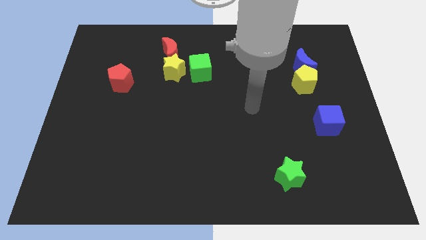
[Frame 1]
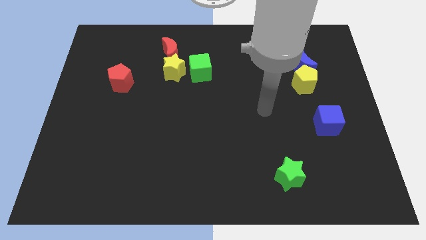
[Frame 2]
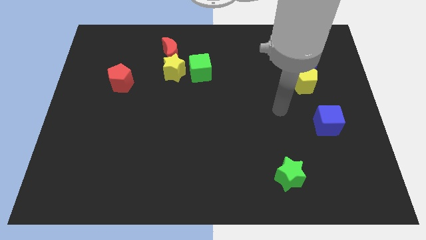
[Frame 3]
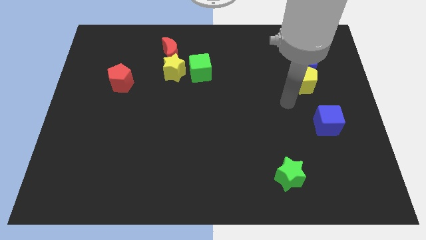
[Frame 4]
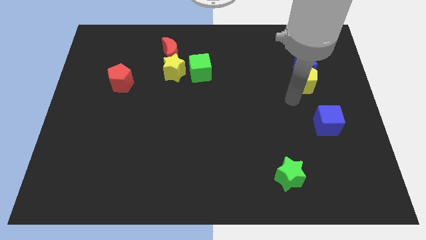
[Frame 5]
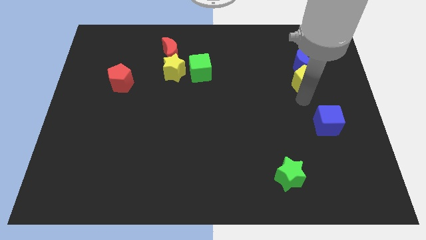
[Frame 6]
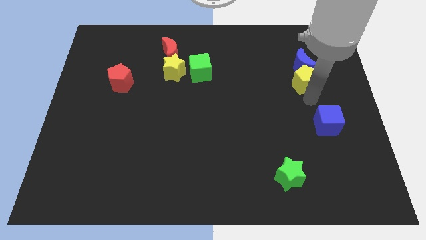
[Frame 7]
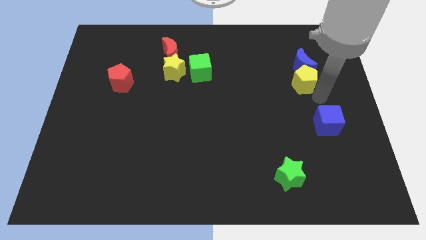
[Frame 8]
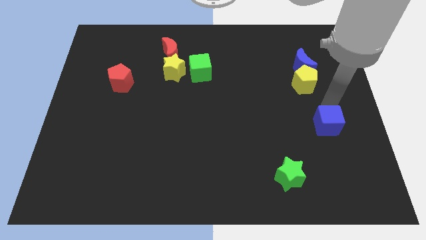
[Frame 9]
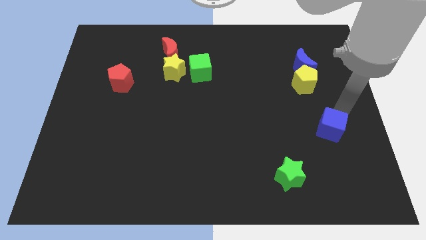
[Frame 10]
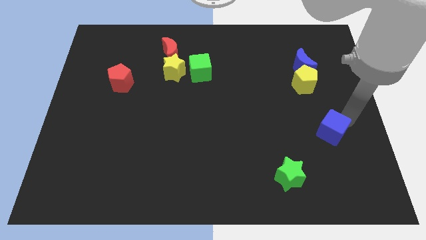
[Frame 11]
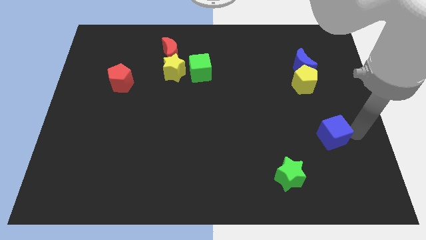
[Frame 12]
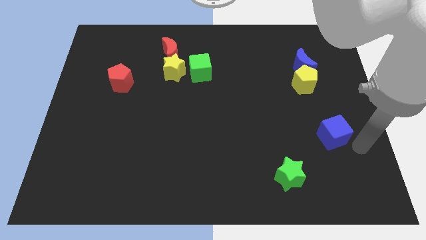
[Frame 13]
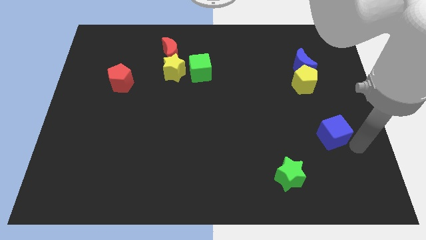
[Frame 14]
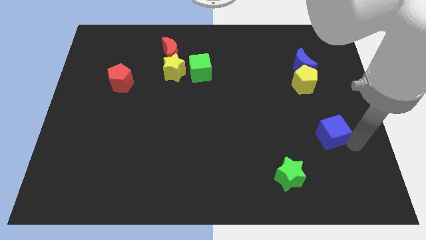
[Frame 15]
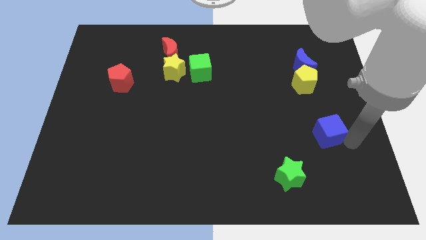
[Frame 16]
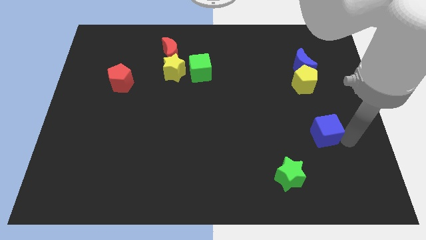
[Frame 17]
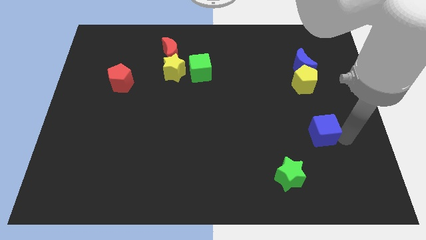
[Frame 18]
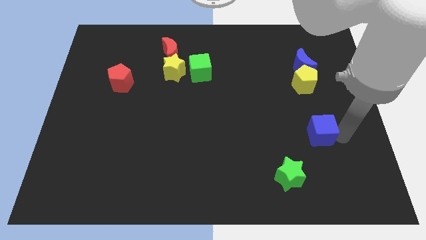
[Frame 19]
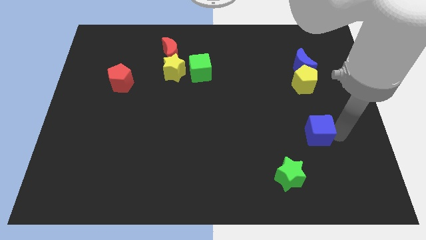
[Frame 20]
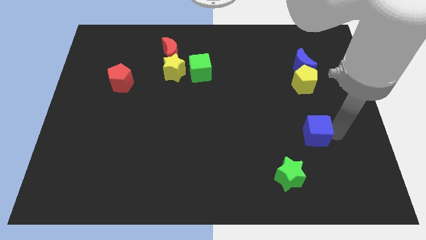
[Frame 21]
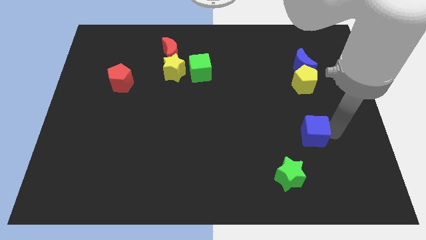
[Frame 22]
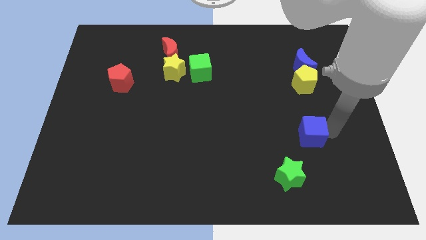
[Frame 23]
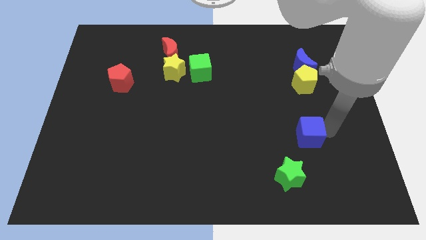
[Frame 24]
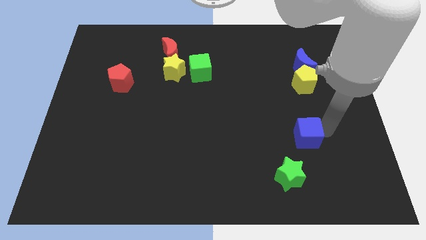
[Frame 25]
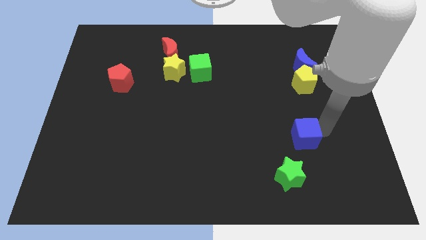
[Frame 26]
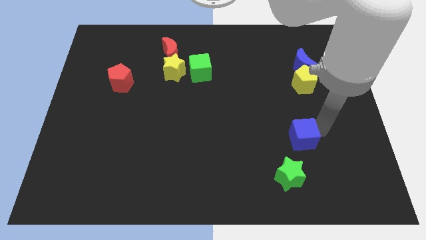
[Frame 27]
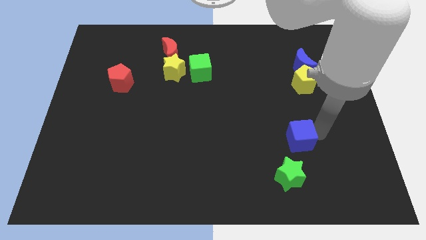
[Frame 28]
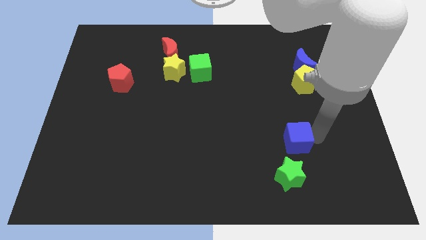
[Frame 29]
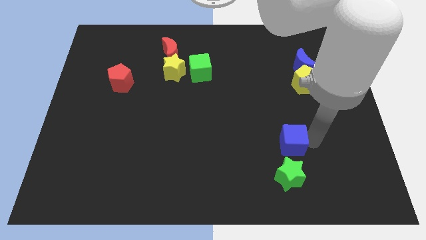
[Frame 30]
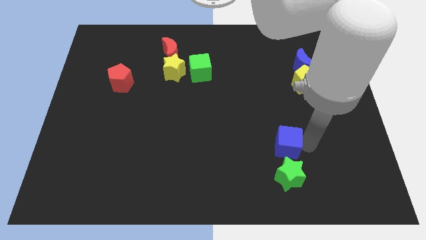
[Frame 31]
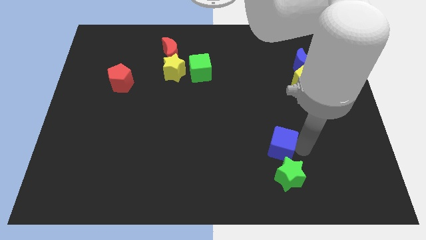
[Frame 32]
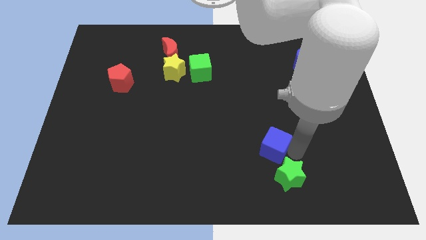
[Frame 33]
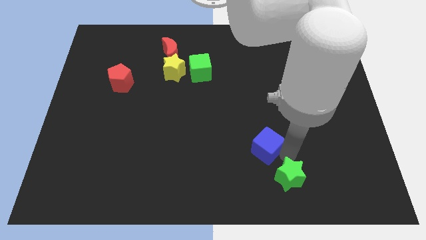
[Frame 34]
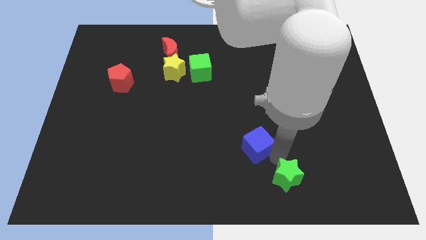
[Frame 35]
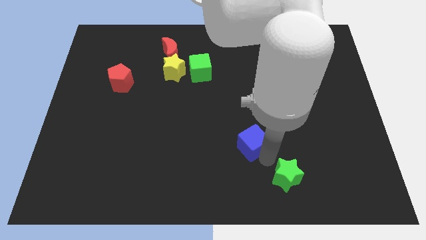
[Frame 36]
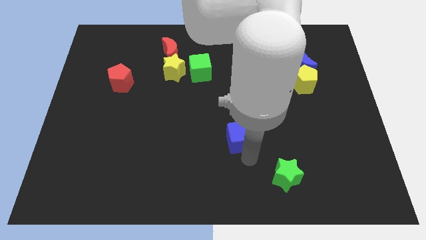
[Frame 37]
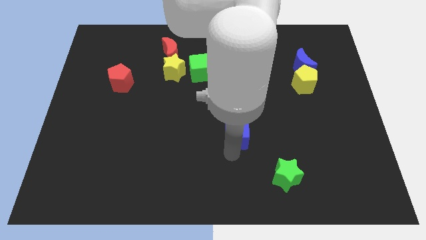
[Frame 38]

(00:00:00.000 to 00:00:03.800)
move the blue cube to the left

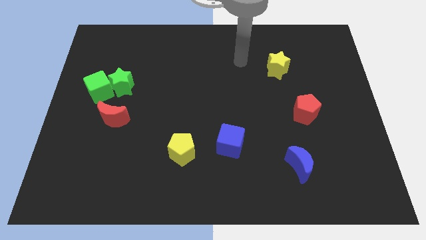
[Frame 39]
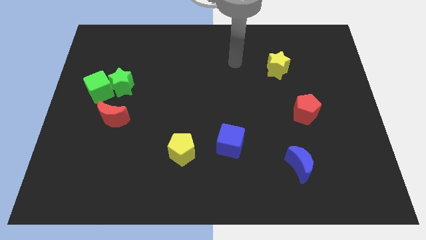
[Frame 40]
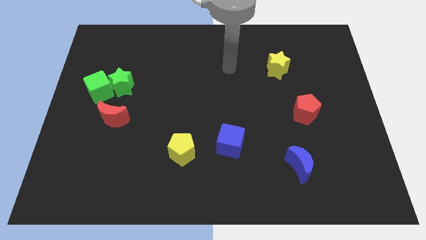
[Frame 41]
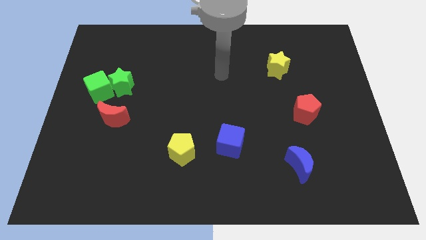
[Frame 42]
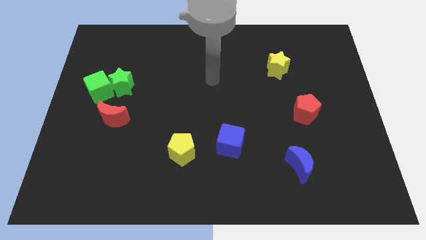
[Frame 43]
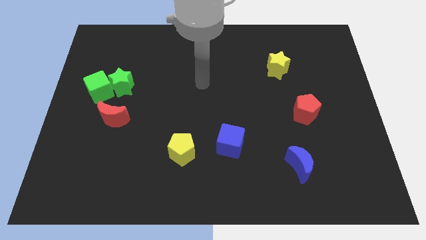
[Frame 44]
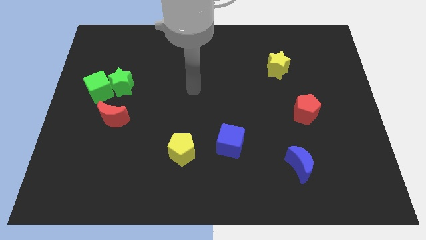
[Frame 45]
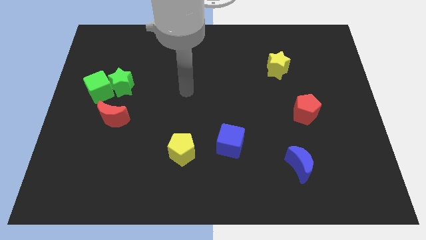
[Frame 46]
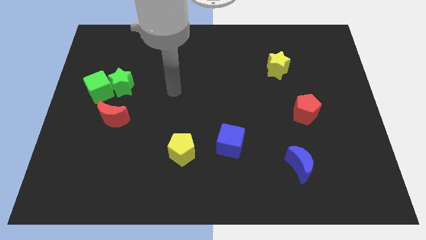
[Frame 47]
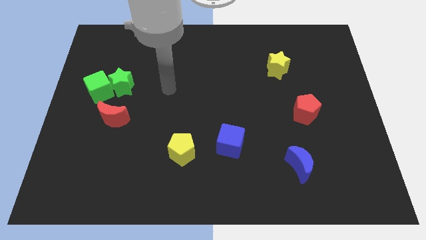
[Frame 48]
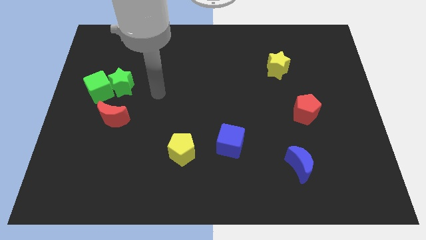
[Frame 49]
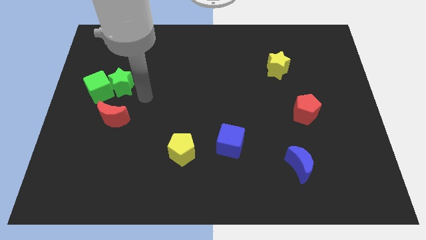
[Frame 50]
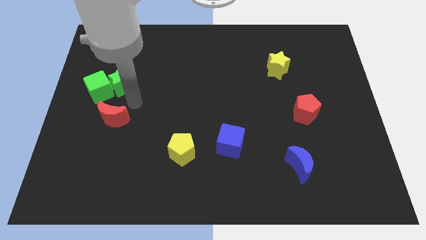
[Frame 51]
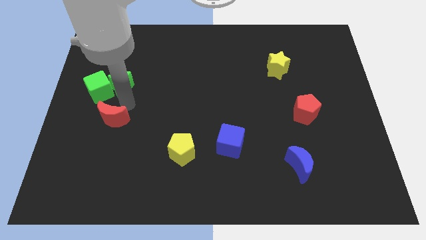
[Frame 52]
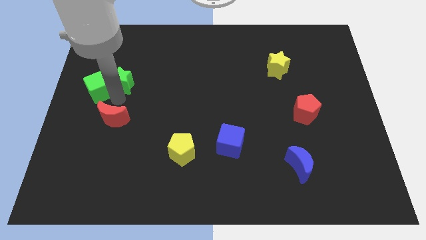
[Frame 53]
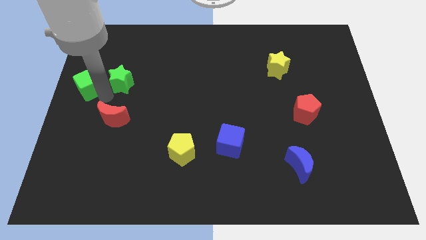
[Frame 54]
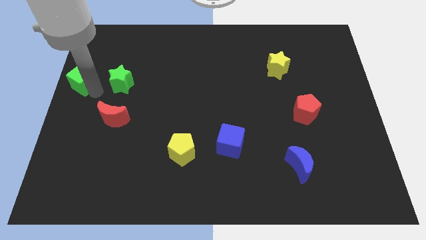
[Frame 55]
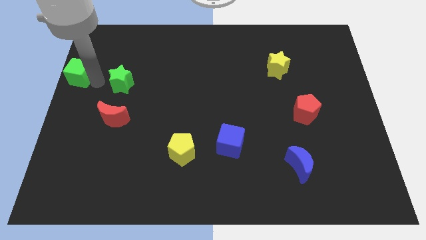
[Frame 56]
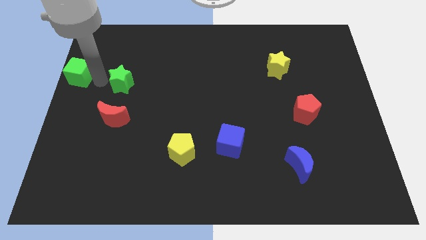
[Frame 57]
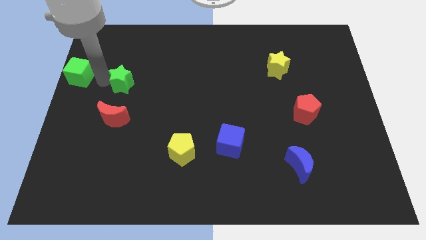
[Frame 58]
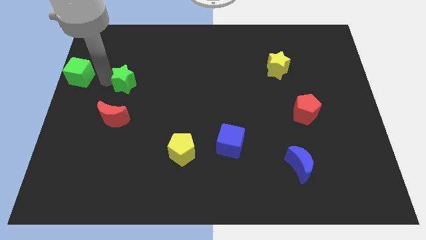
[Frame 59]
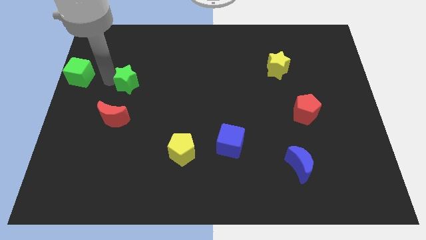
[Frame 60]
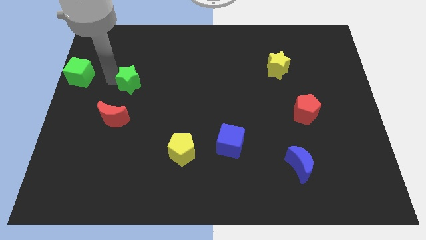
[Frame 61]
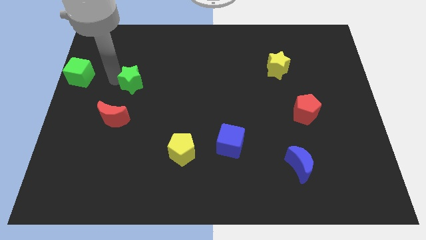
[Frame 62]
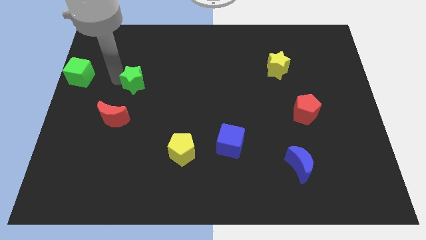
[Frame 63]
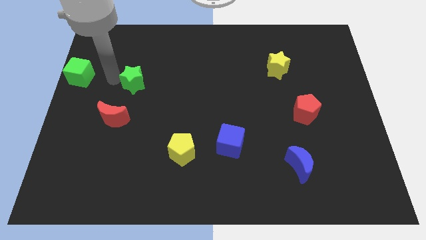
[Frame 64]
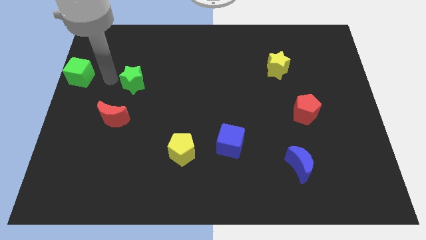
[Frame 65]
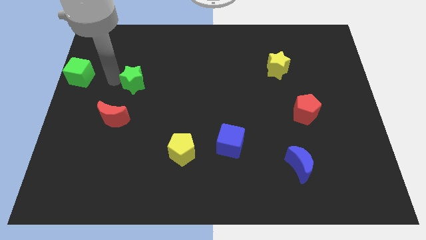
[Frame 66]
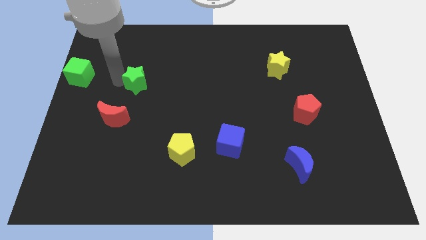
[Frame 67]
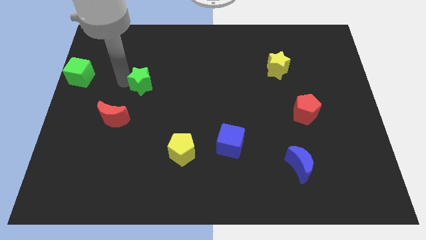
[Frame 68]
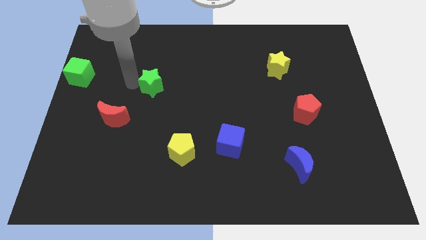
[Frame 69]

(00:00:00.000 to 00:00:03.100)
slide the green star somewhat to the right

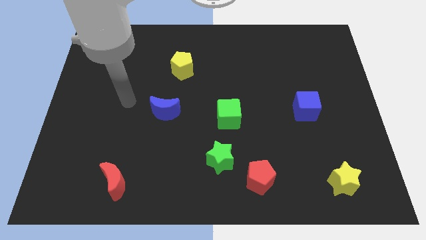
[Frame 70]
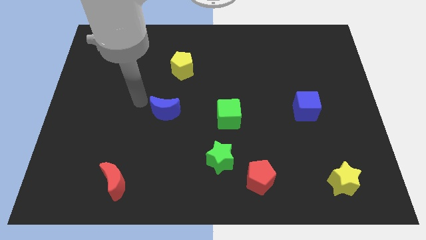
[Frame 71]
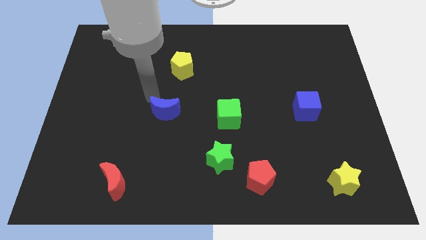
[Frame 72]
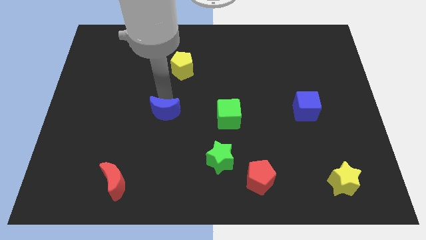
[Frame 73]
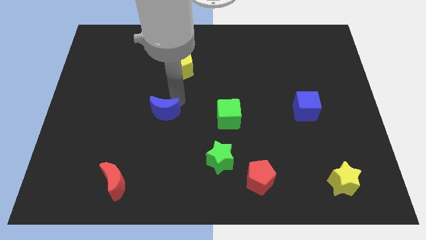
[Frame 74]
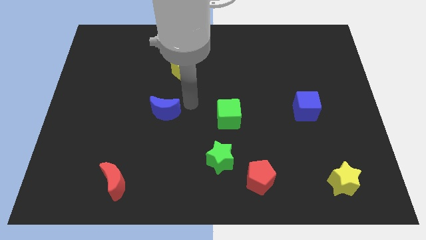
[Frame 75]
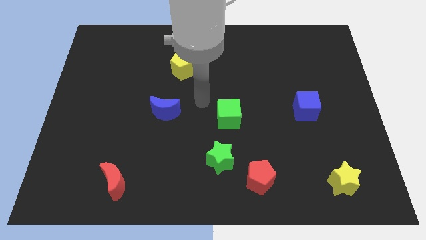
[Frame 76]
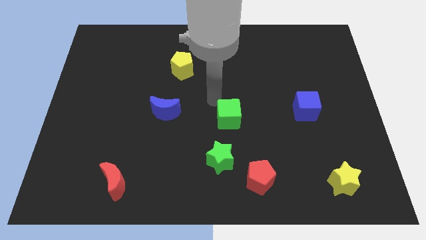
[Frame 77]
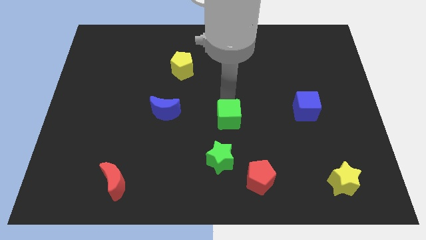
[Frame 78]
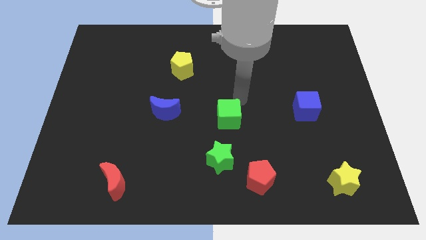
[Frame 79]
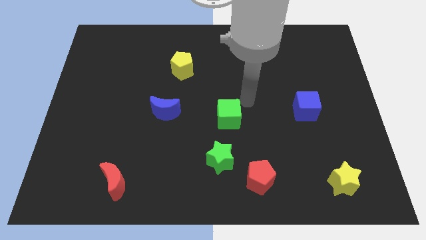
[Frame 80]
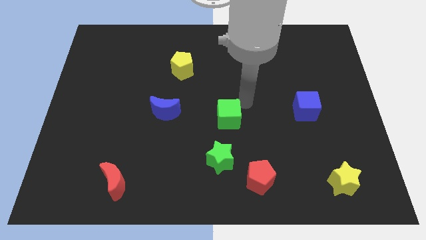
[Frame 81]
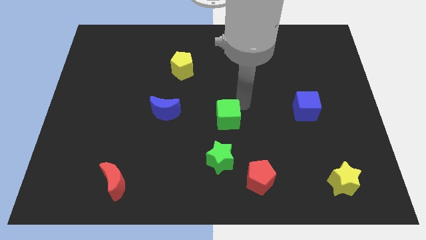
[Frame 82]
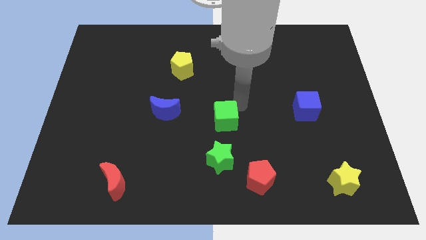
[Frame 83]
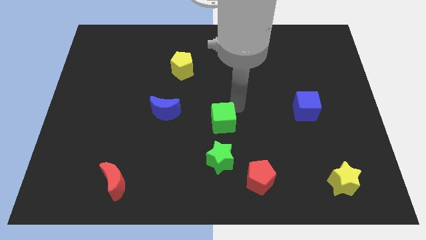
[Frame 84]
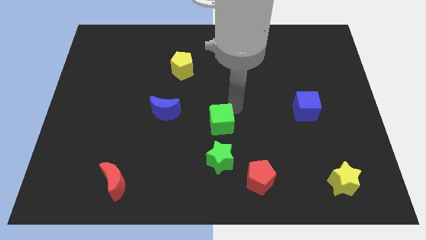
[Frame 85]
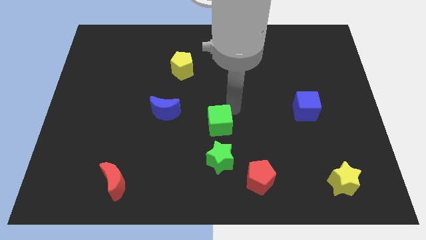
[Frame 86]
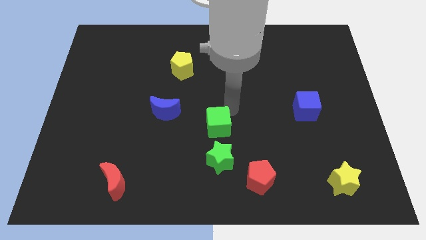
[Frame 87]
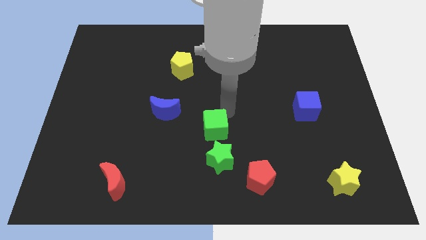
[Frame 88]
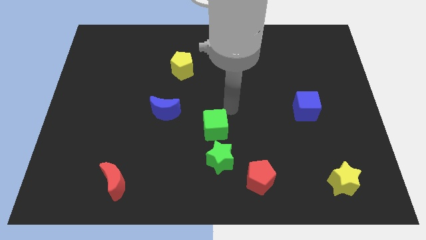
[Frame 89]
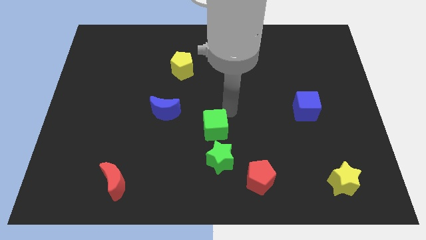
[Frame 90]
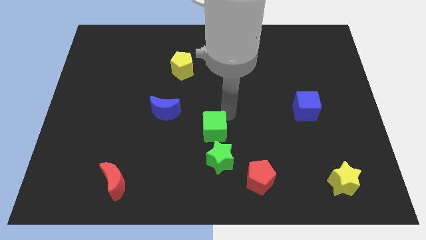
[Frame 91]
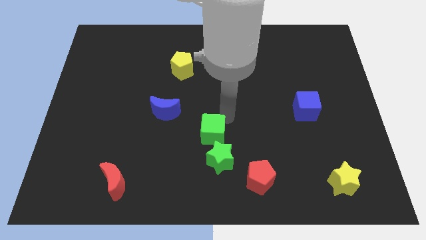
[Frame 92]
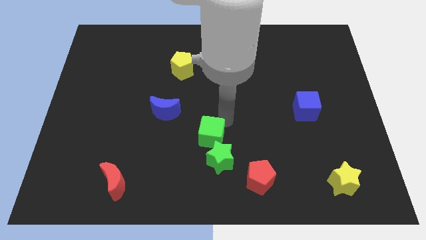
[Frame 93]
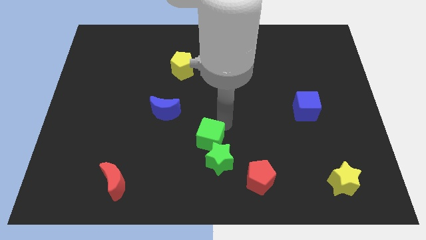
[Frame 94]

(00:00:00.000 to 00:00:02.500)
move the green cube a little down and to the left diagonally
